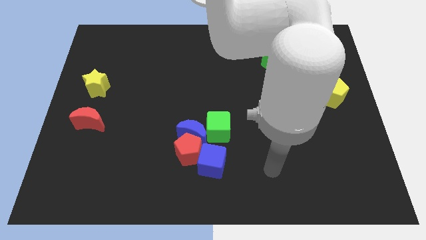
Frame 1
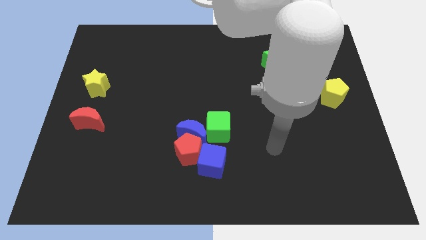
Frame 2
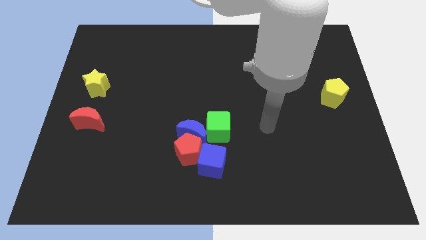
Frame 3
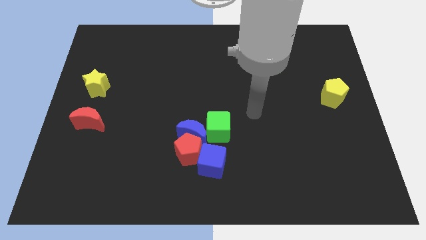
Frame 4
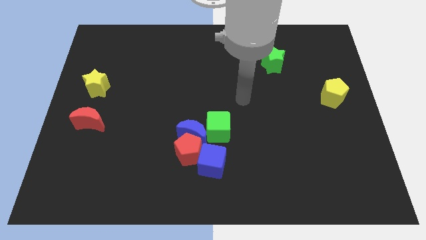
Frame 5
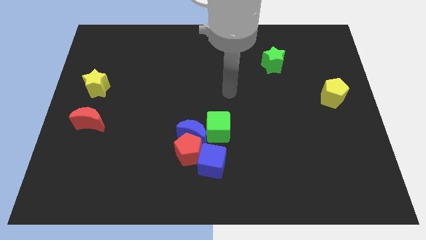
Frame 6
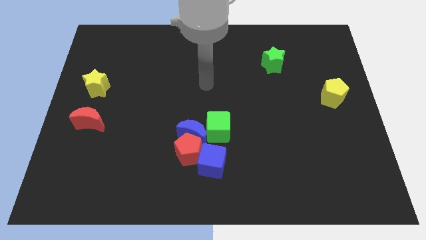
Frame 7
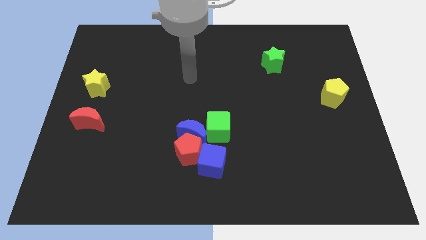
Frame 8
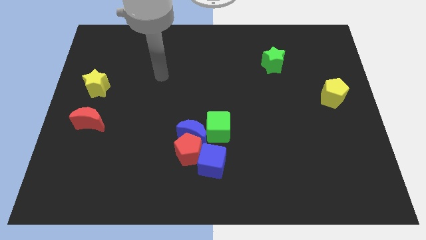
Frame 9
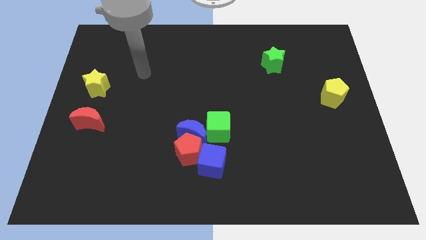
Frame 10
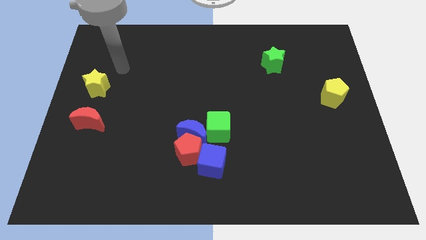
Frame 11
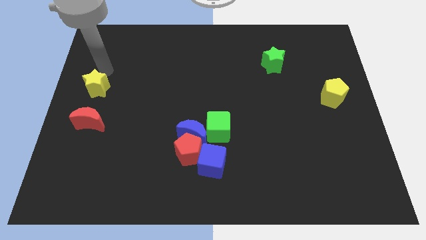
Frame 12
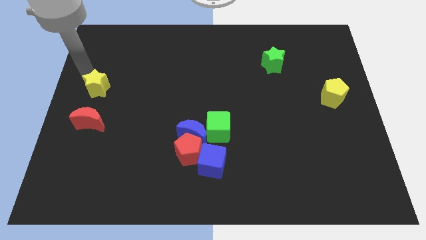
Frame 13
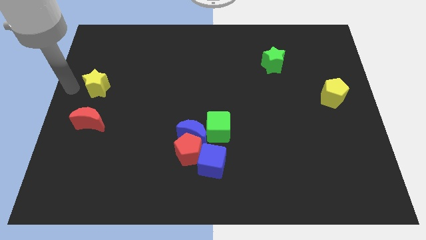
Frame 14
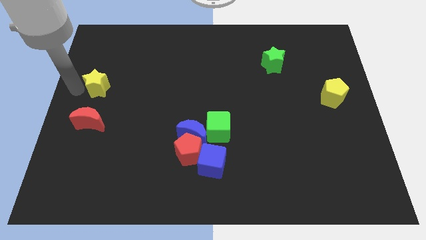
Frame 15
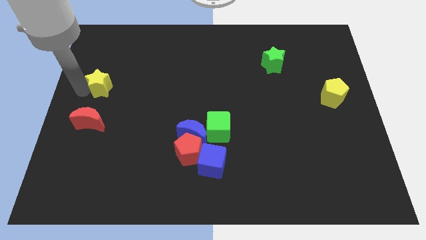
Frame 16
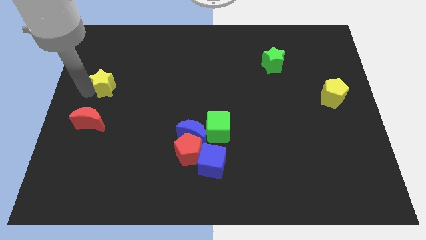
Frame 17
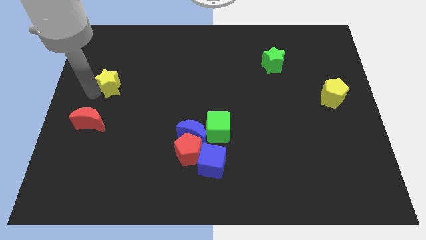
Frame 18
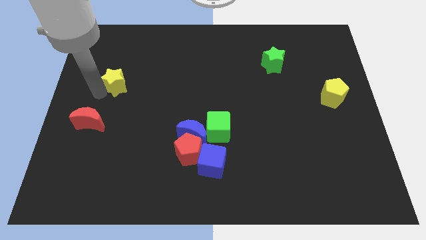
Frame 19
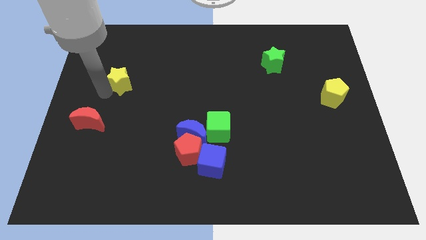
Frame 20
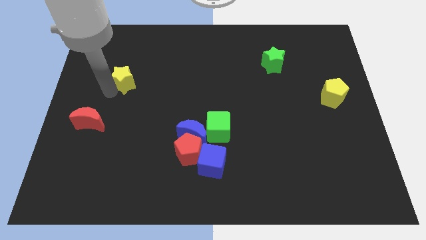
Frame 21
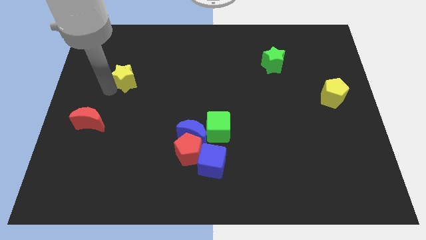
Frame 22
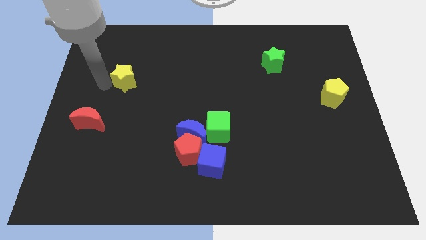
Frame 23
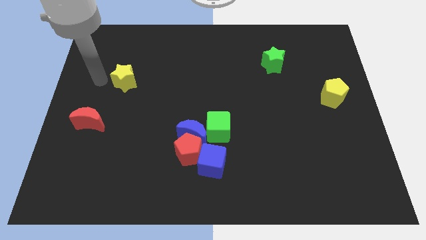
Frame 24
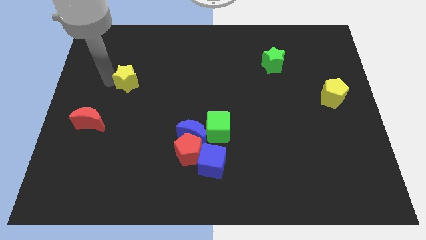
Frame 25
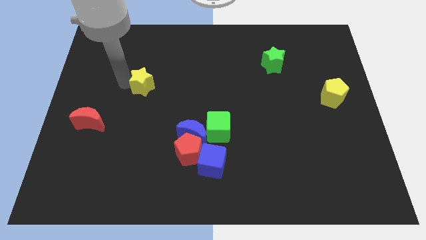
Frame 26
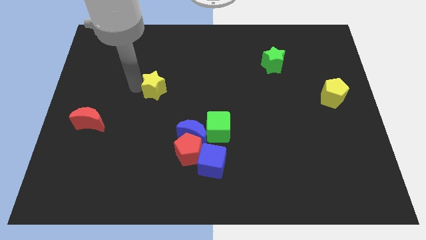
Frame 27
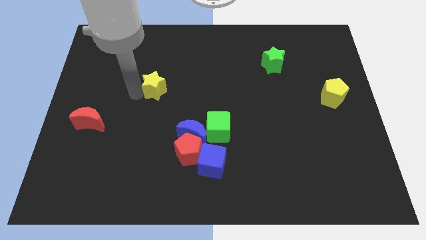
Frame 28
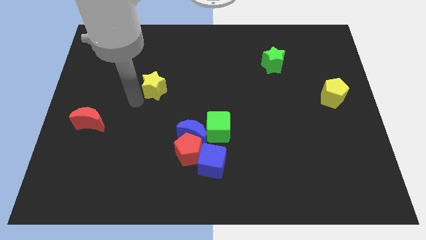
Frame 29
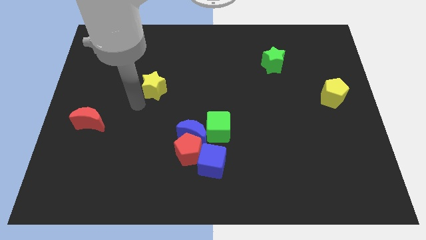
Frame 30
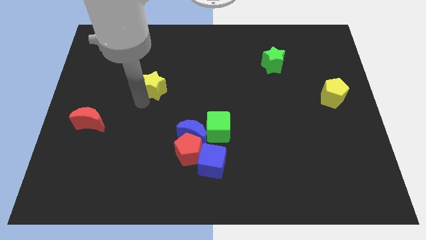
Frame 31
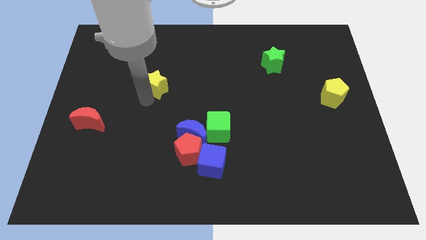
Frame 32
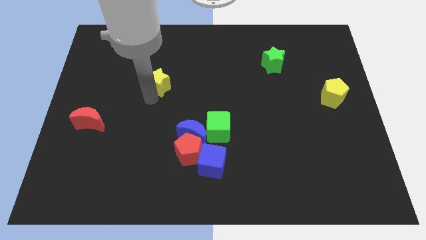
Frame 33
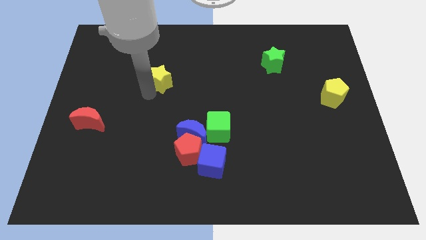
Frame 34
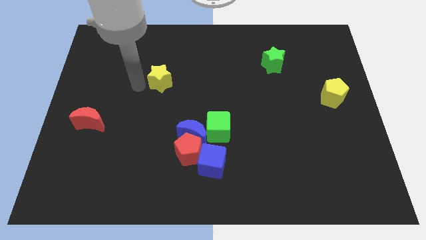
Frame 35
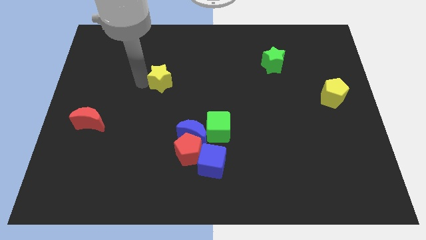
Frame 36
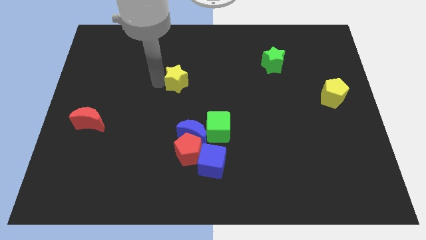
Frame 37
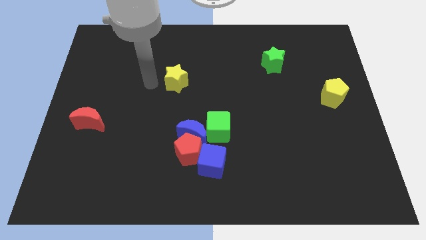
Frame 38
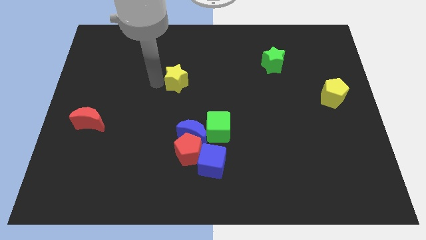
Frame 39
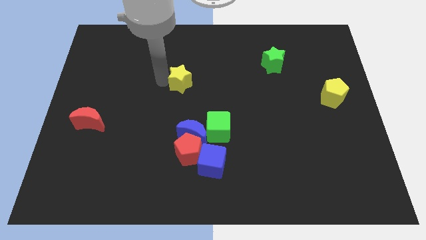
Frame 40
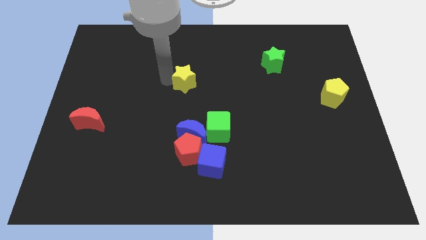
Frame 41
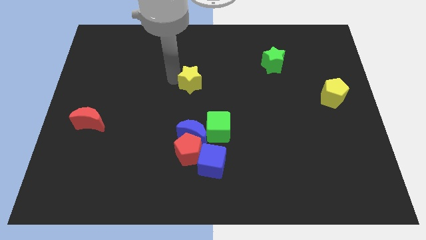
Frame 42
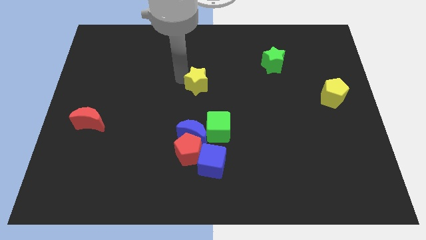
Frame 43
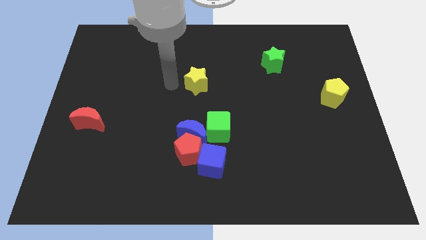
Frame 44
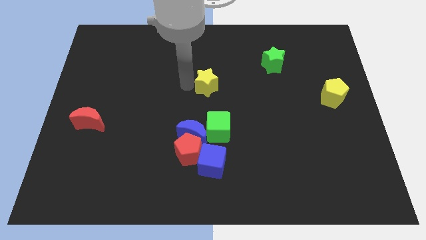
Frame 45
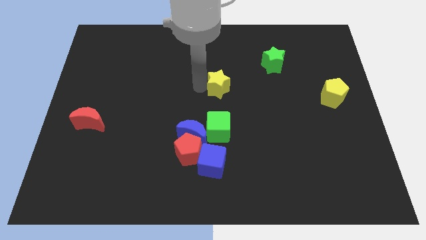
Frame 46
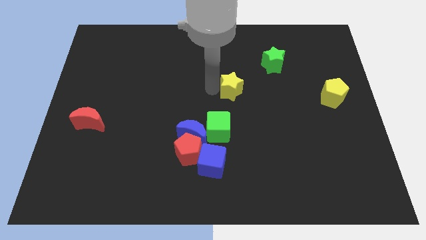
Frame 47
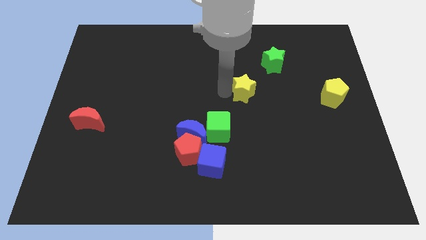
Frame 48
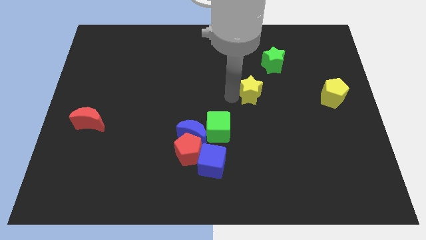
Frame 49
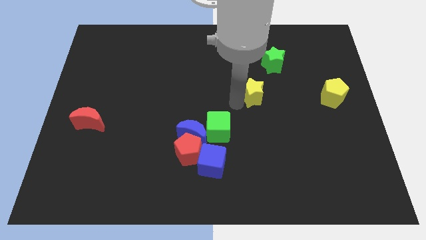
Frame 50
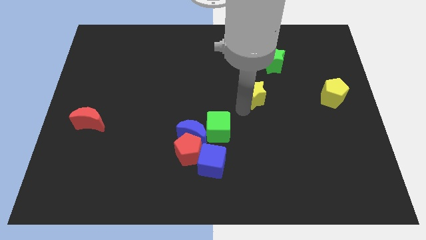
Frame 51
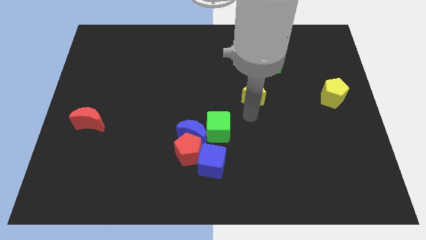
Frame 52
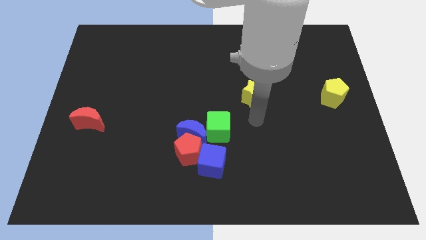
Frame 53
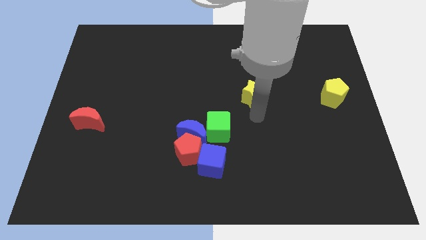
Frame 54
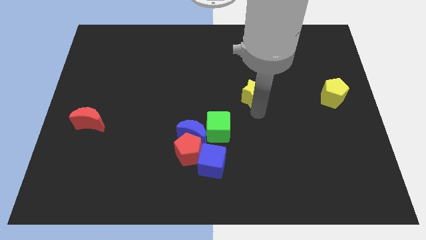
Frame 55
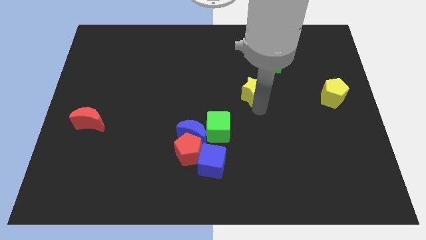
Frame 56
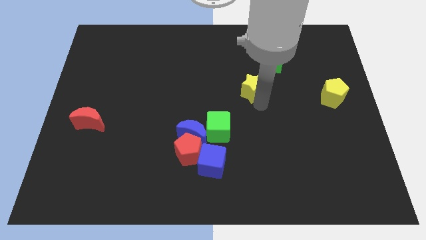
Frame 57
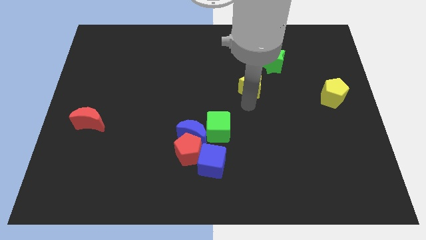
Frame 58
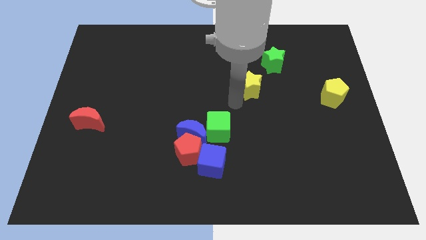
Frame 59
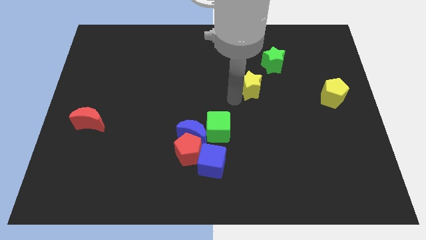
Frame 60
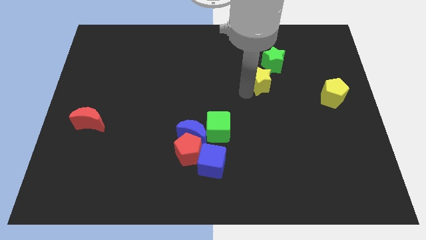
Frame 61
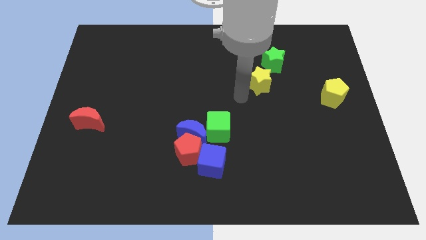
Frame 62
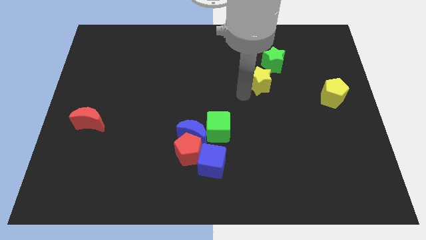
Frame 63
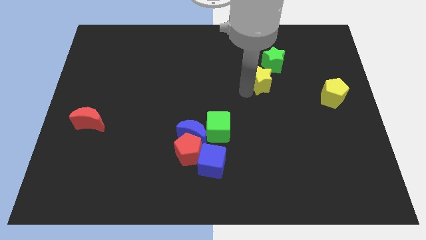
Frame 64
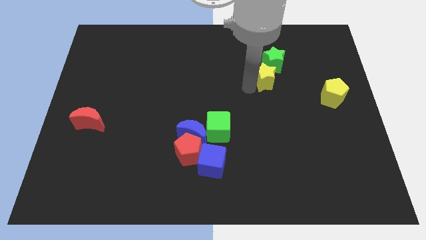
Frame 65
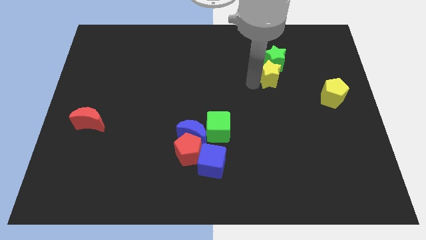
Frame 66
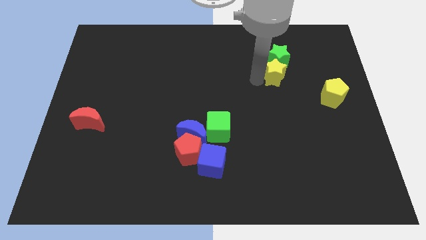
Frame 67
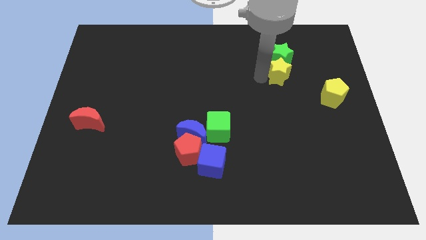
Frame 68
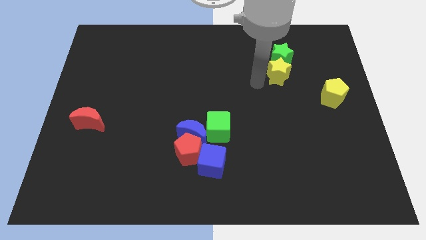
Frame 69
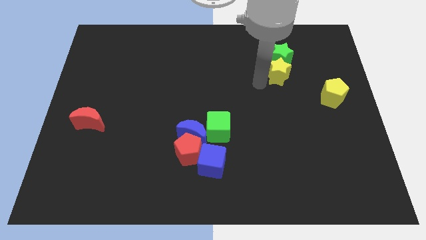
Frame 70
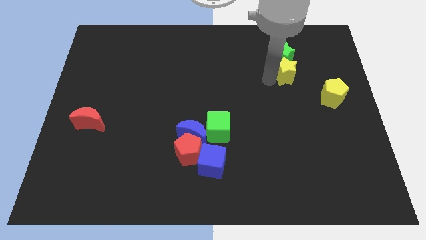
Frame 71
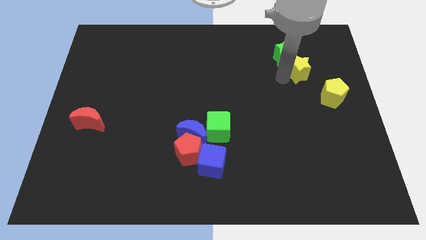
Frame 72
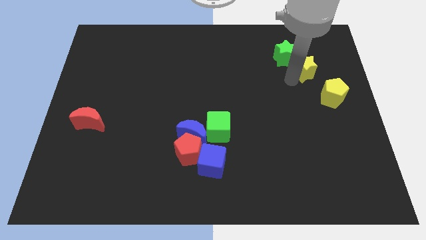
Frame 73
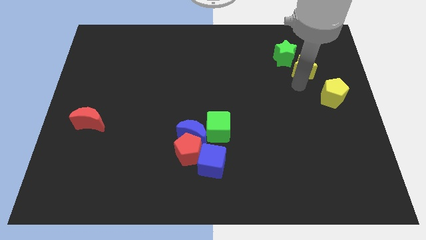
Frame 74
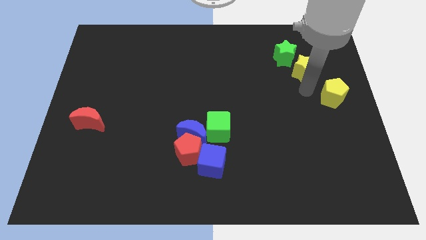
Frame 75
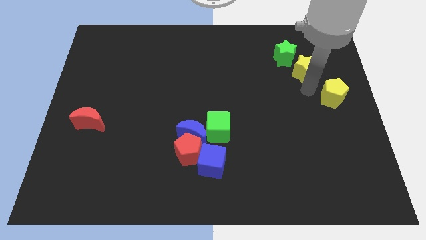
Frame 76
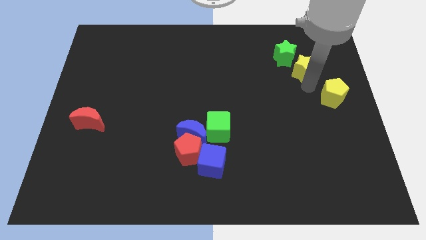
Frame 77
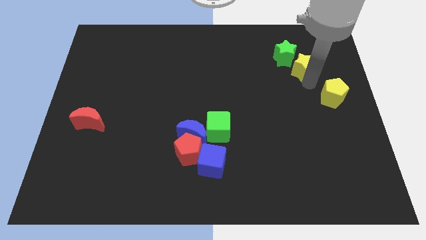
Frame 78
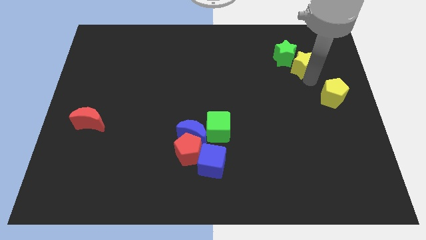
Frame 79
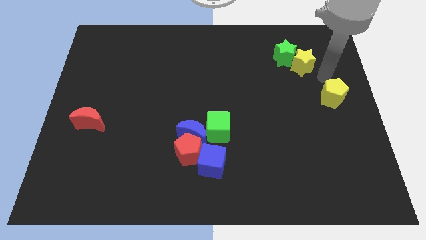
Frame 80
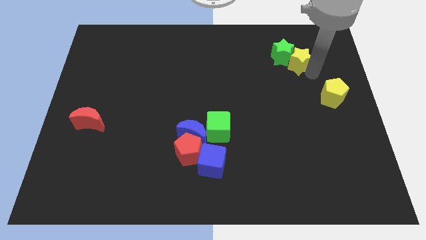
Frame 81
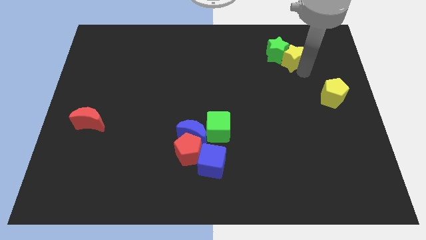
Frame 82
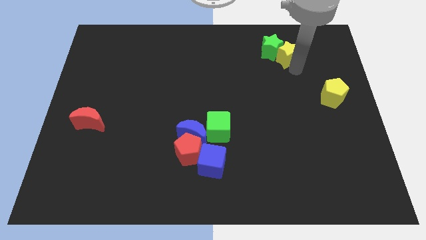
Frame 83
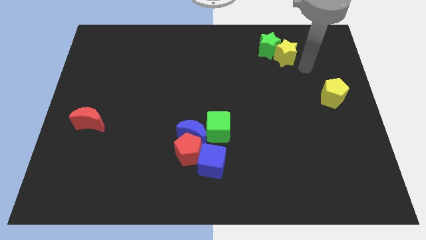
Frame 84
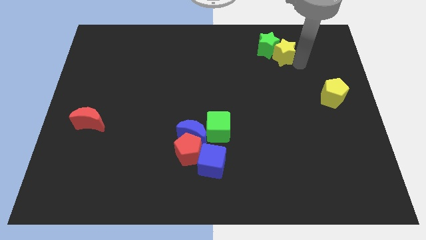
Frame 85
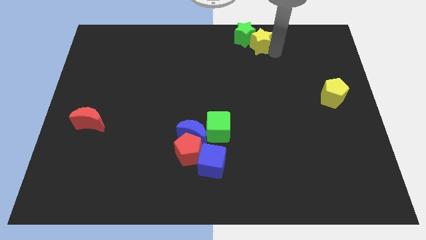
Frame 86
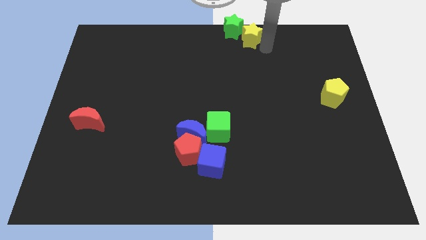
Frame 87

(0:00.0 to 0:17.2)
move the yellow star to the top
